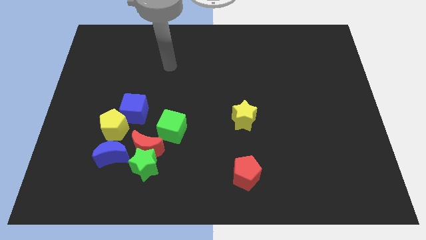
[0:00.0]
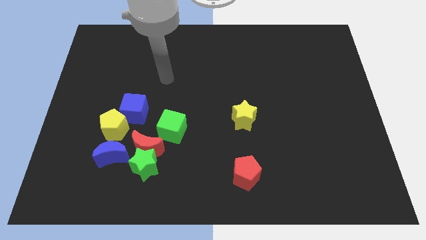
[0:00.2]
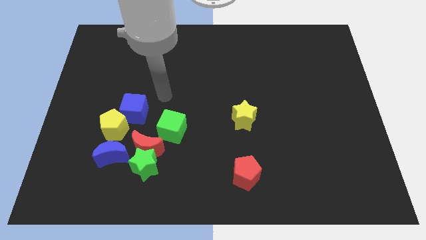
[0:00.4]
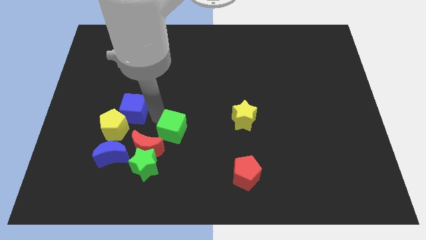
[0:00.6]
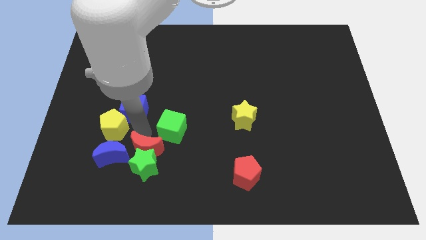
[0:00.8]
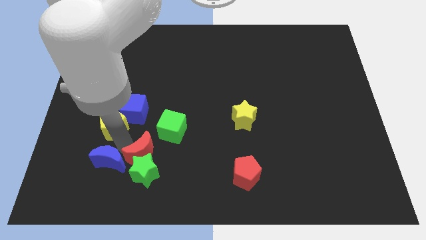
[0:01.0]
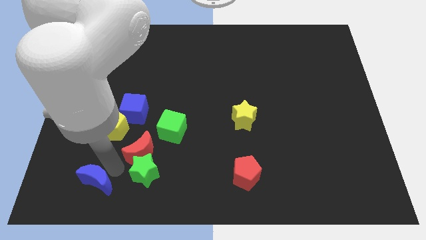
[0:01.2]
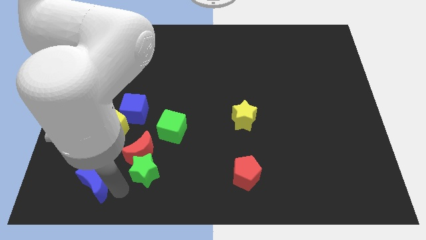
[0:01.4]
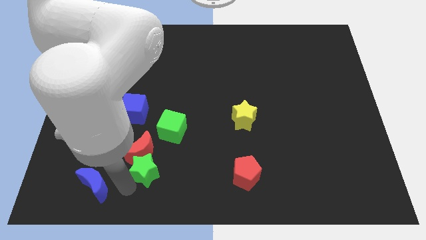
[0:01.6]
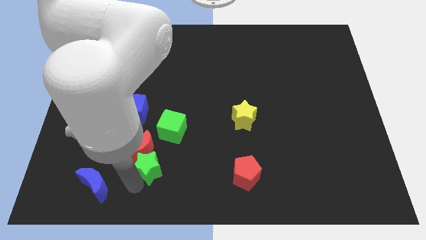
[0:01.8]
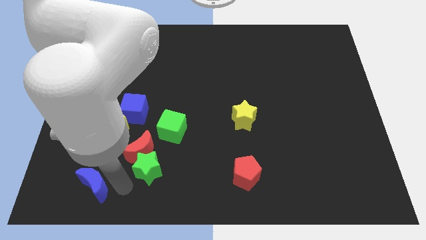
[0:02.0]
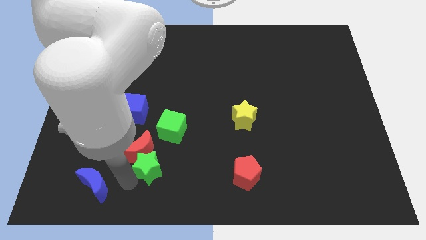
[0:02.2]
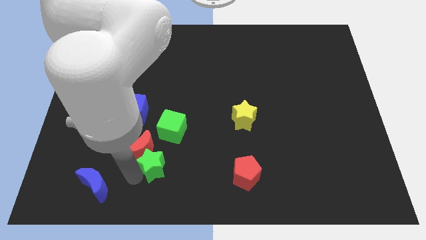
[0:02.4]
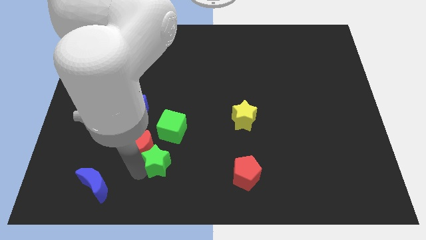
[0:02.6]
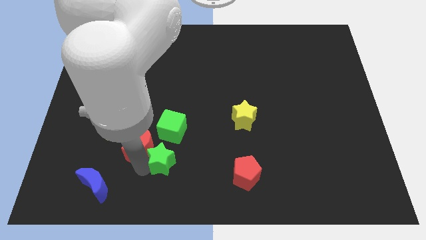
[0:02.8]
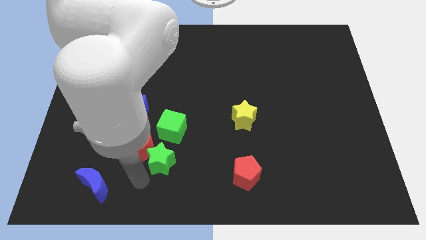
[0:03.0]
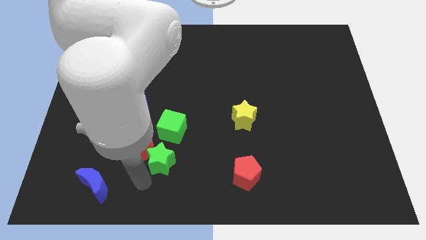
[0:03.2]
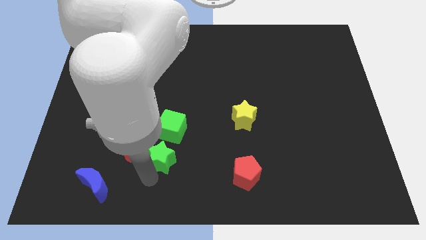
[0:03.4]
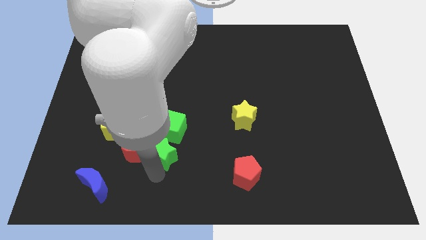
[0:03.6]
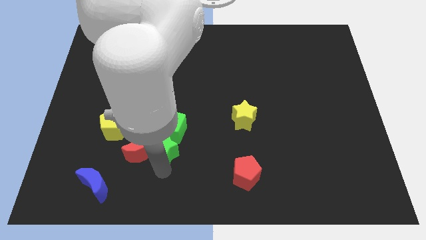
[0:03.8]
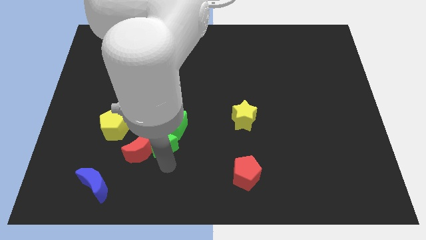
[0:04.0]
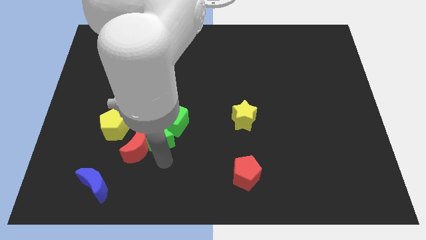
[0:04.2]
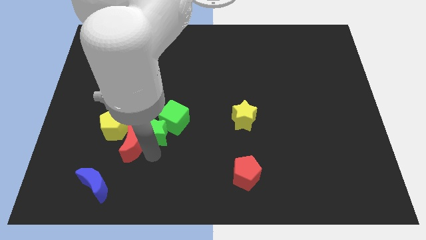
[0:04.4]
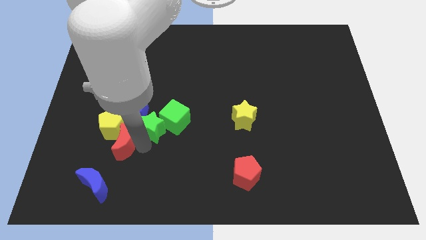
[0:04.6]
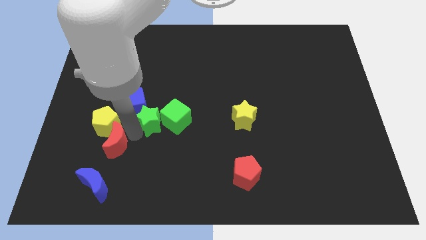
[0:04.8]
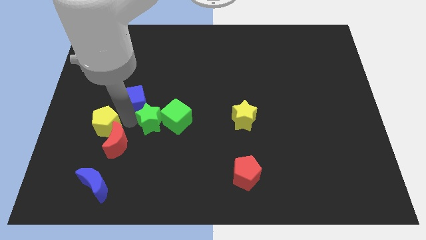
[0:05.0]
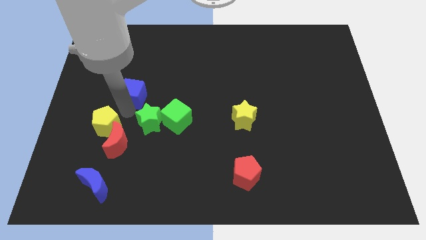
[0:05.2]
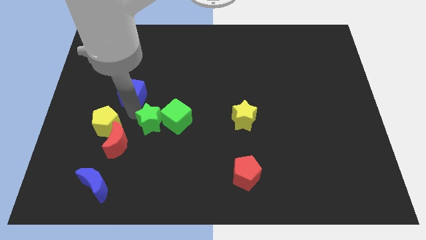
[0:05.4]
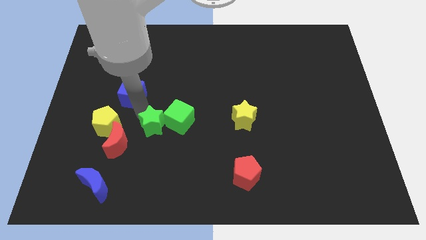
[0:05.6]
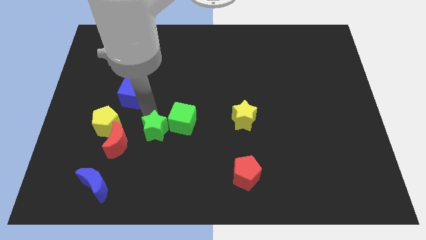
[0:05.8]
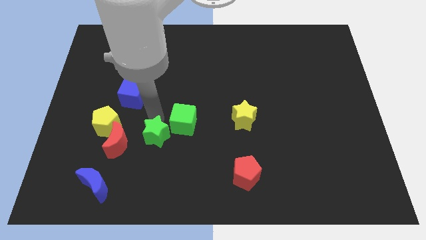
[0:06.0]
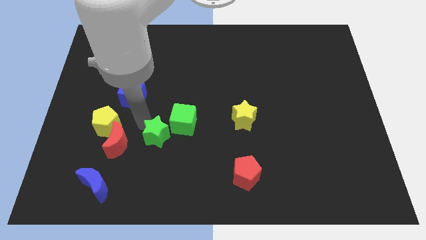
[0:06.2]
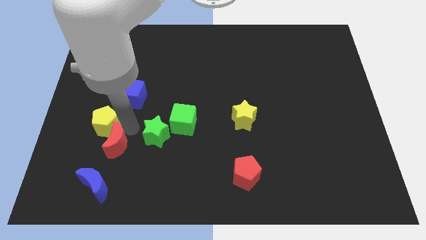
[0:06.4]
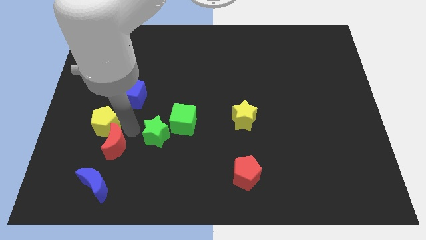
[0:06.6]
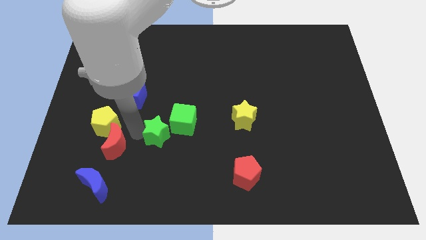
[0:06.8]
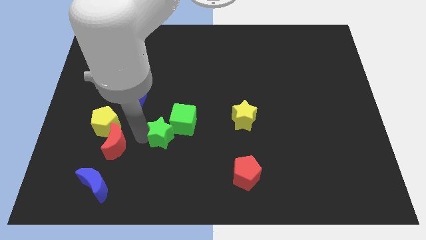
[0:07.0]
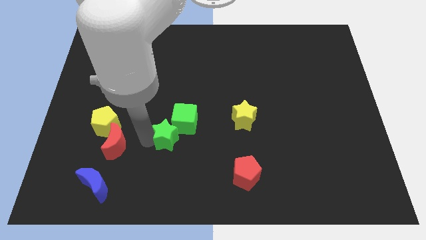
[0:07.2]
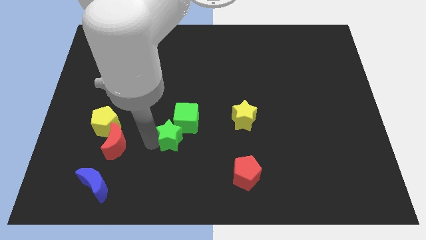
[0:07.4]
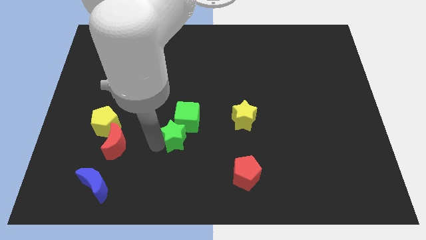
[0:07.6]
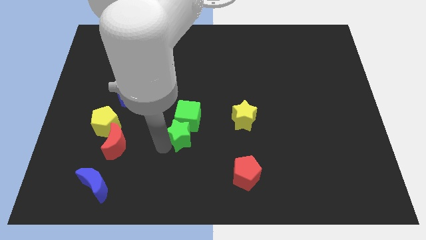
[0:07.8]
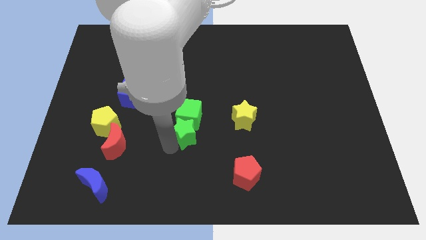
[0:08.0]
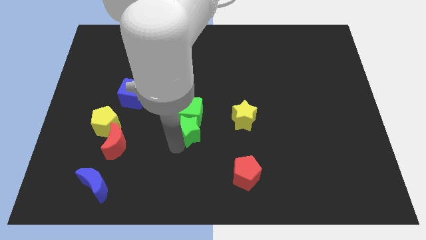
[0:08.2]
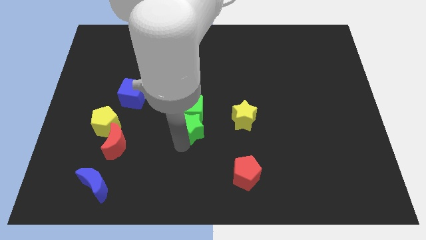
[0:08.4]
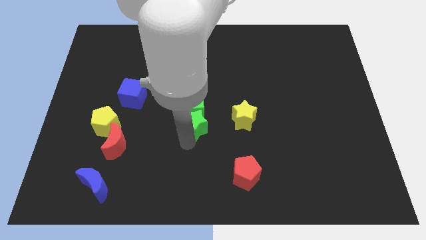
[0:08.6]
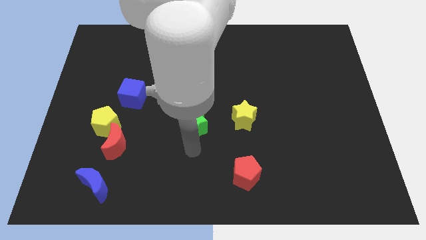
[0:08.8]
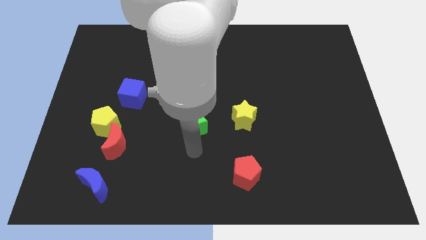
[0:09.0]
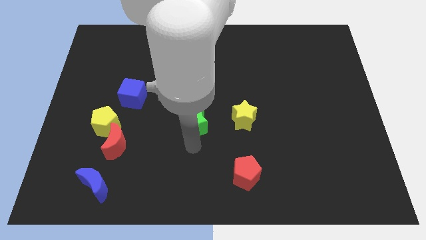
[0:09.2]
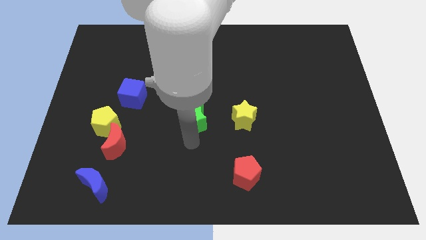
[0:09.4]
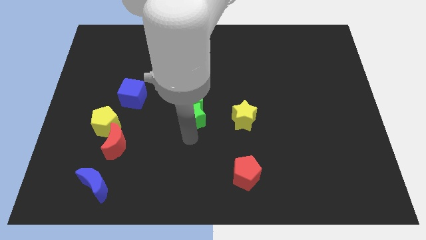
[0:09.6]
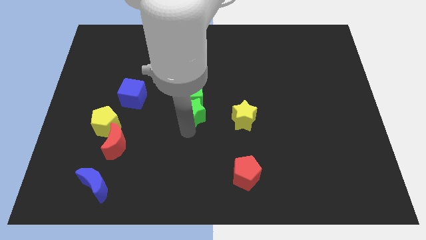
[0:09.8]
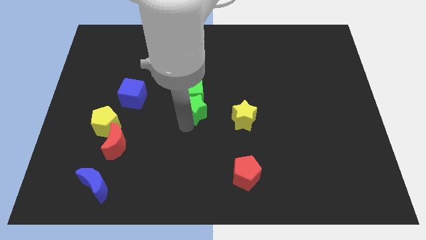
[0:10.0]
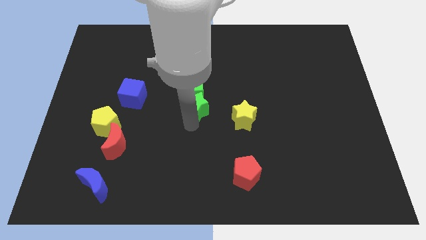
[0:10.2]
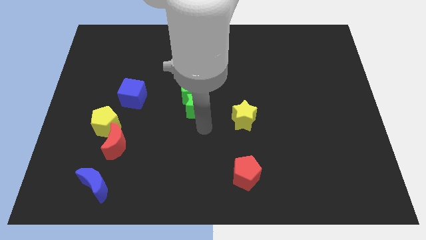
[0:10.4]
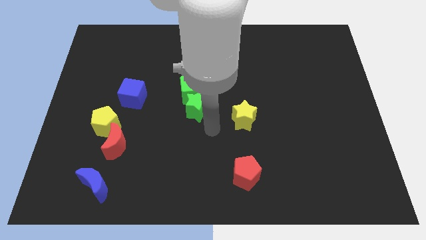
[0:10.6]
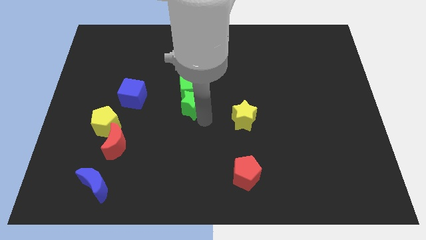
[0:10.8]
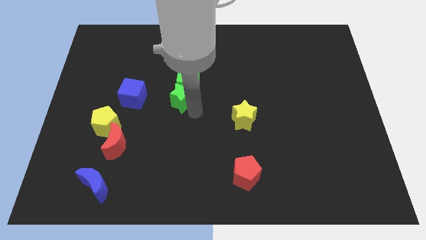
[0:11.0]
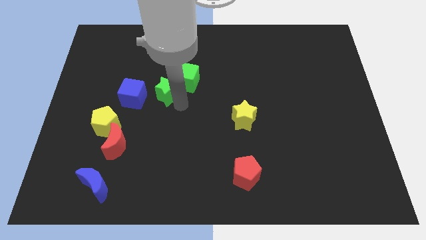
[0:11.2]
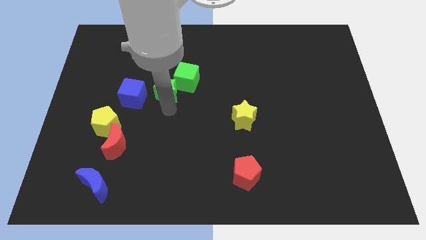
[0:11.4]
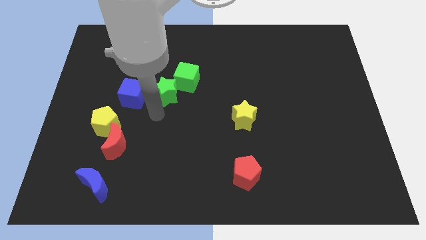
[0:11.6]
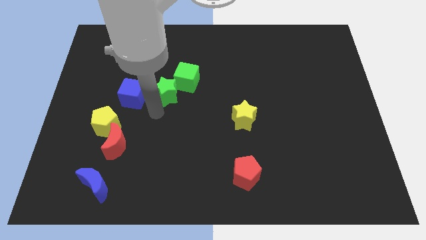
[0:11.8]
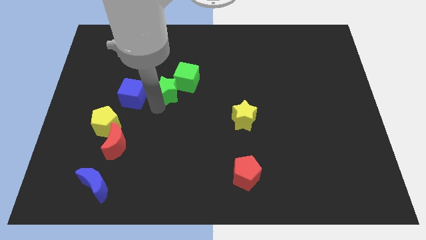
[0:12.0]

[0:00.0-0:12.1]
slide the green star upwards

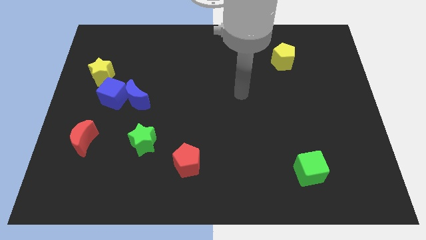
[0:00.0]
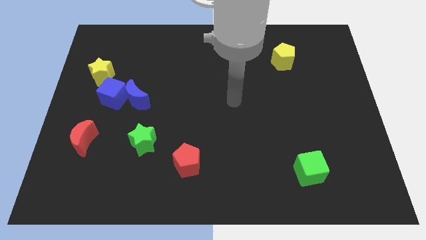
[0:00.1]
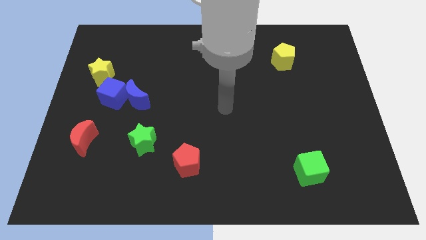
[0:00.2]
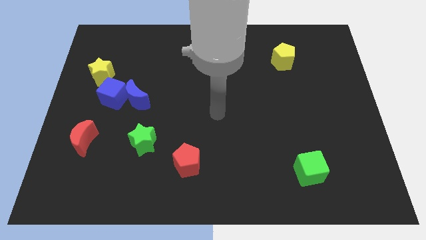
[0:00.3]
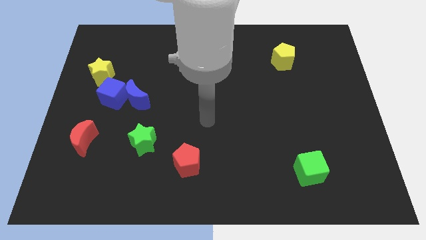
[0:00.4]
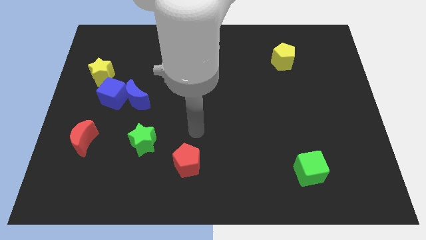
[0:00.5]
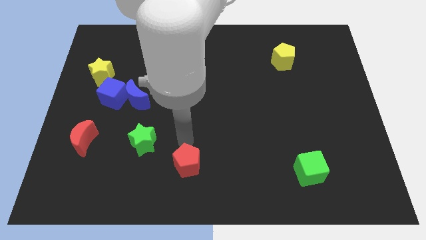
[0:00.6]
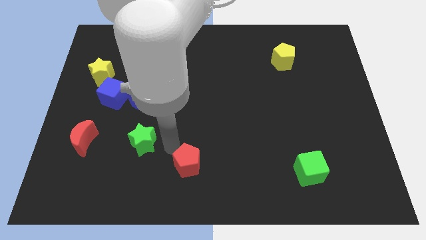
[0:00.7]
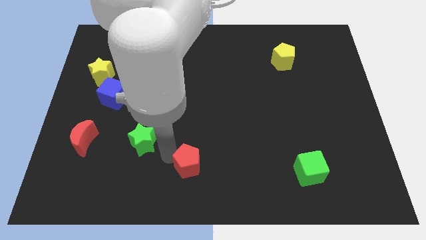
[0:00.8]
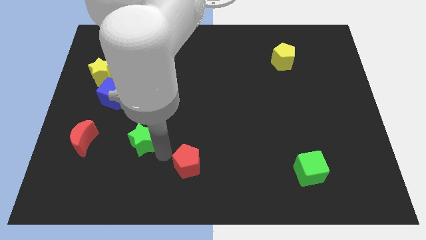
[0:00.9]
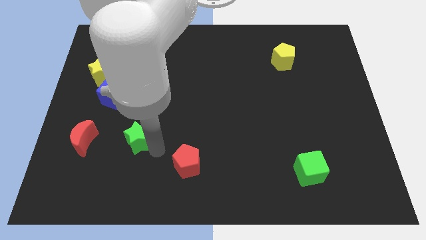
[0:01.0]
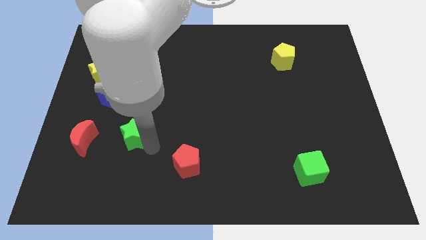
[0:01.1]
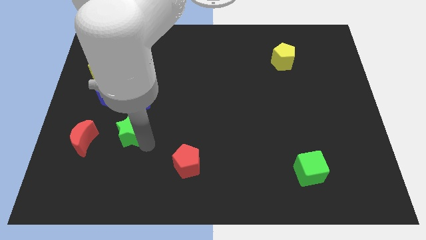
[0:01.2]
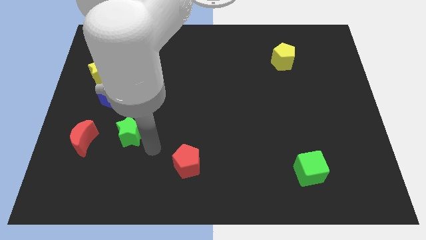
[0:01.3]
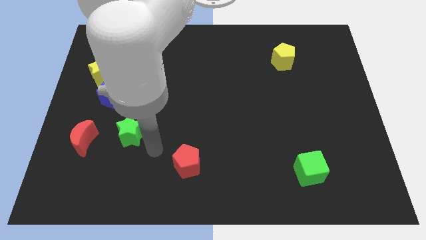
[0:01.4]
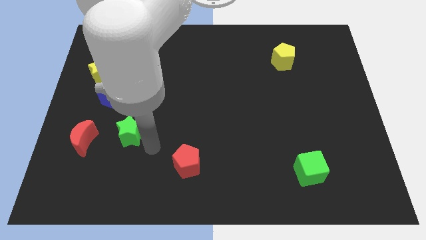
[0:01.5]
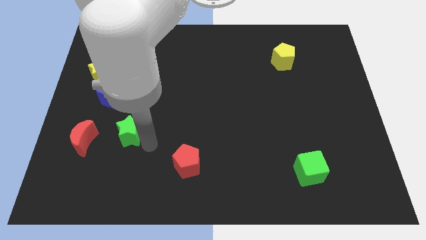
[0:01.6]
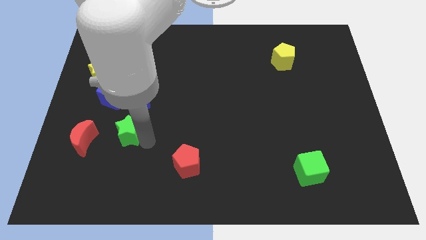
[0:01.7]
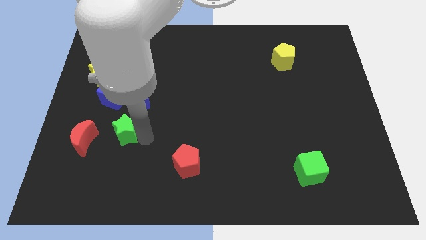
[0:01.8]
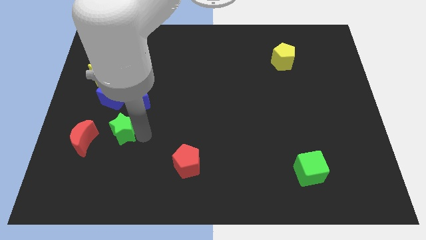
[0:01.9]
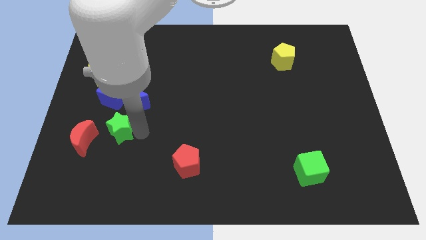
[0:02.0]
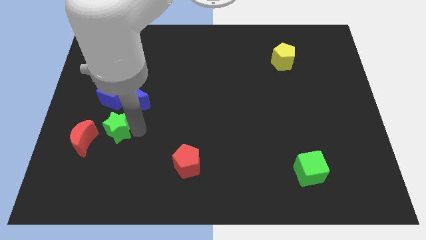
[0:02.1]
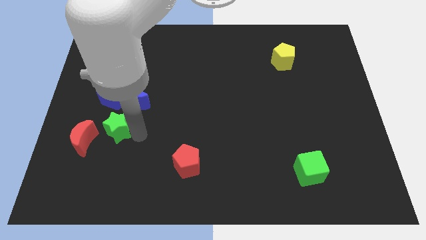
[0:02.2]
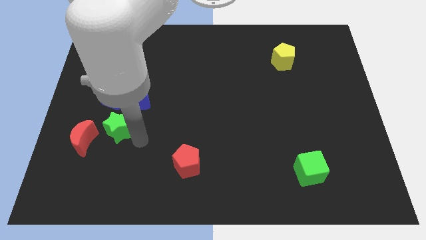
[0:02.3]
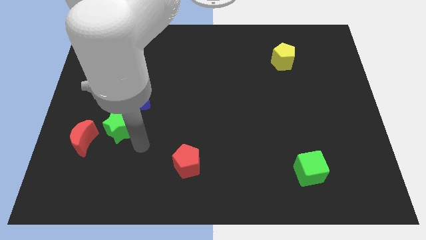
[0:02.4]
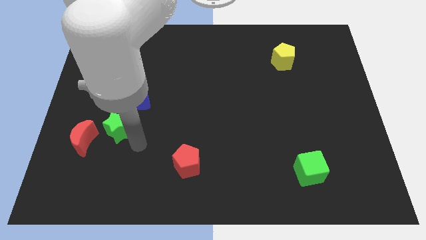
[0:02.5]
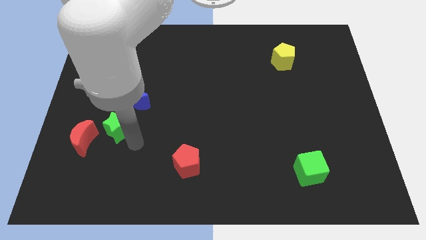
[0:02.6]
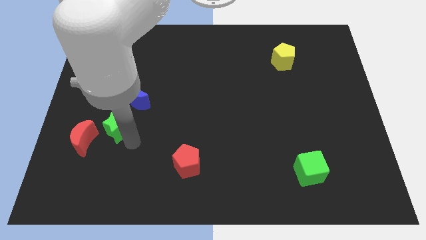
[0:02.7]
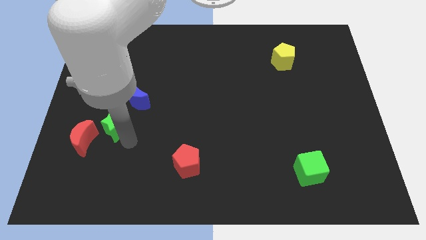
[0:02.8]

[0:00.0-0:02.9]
slightly push the green star up and left diagonally

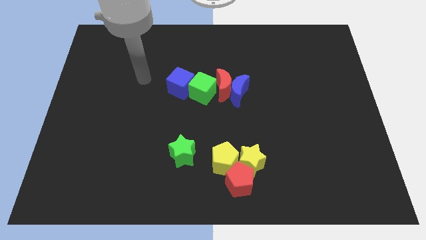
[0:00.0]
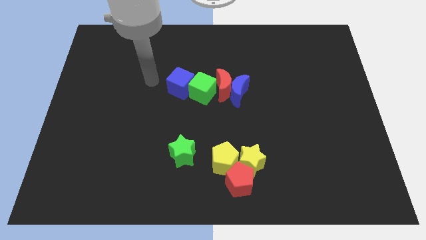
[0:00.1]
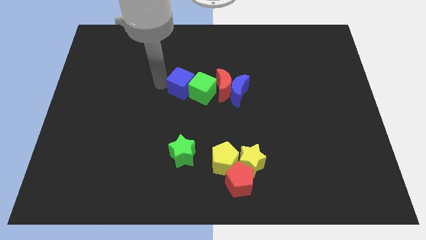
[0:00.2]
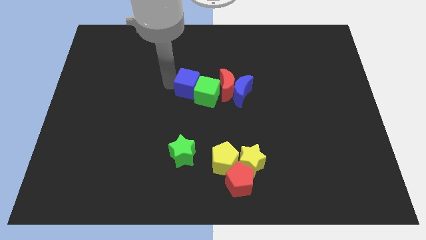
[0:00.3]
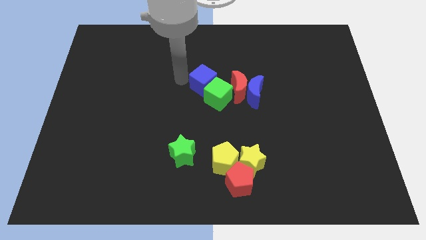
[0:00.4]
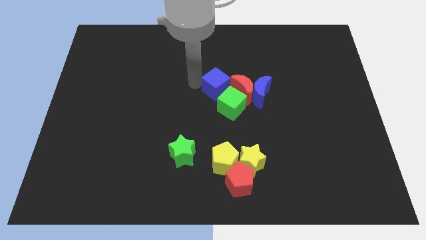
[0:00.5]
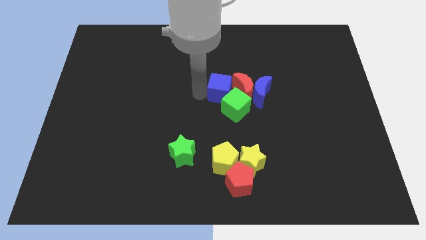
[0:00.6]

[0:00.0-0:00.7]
move the green cube right a little
